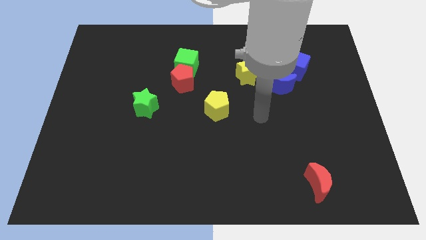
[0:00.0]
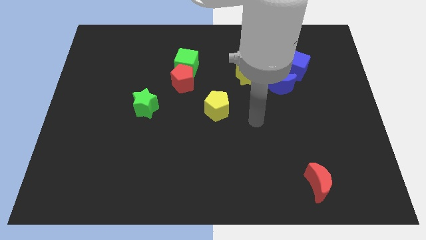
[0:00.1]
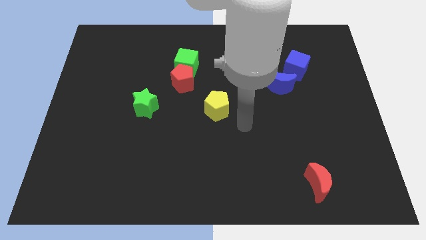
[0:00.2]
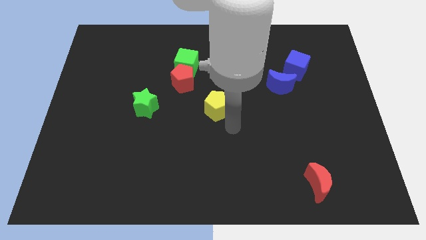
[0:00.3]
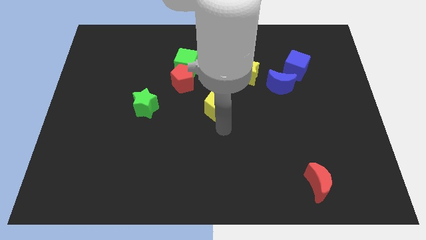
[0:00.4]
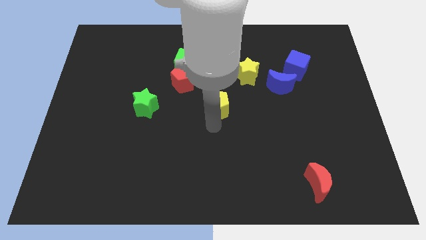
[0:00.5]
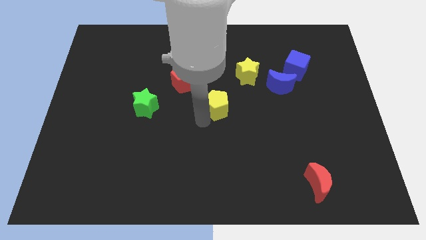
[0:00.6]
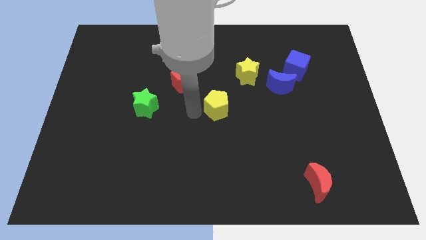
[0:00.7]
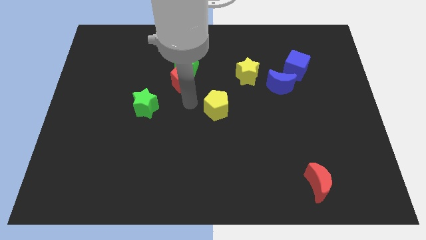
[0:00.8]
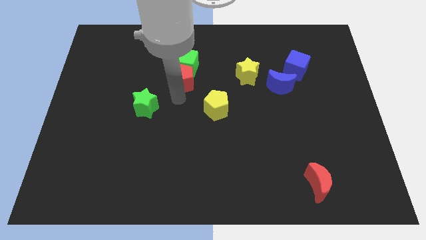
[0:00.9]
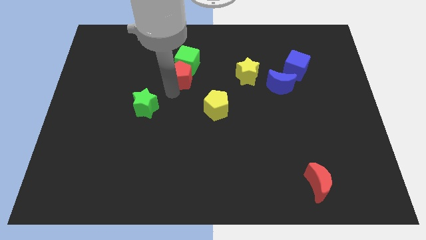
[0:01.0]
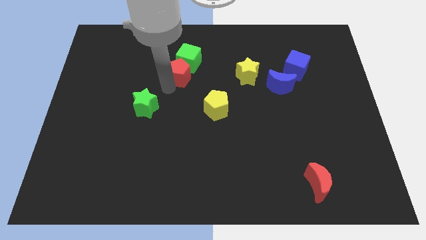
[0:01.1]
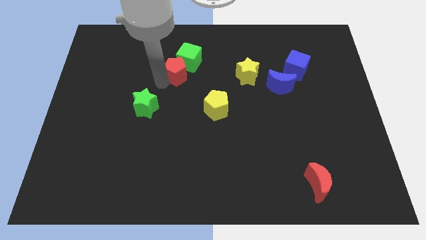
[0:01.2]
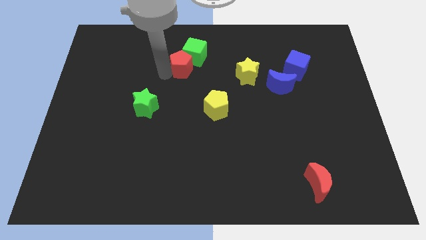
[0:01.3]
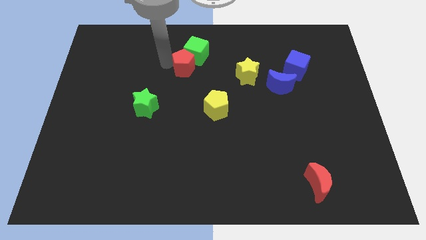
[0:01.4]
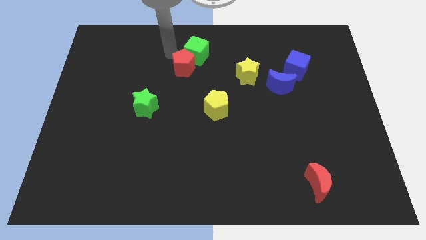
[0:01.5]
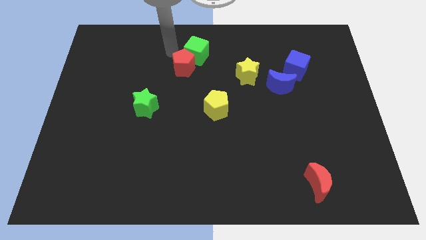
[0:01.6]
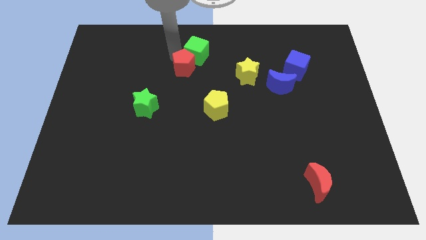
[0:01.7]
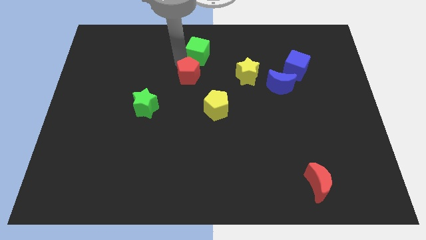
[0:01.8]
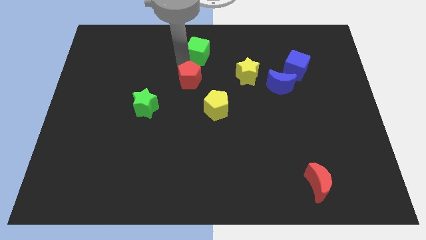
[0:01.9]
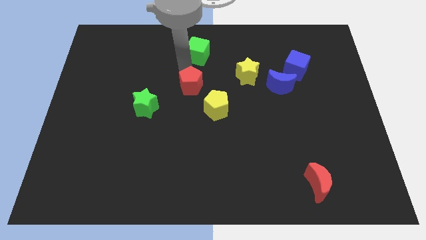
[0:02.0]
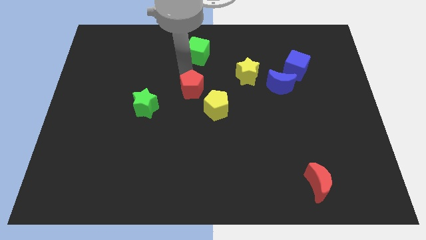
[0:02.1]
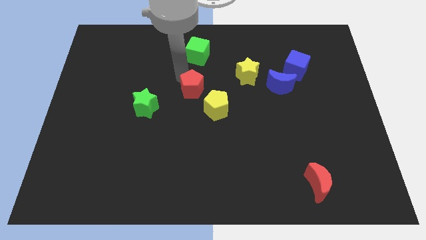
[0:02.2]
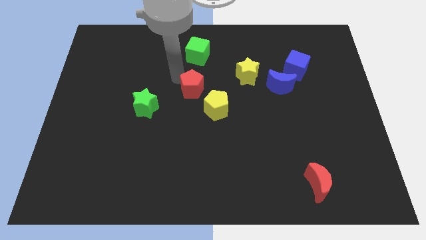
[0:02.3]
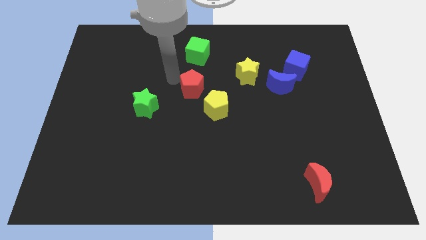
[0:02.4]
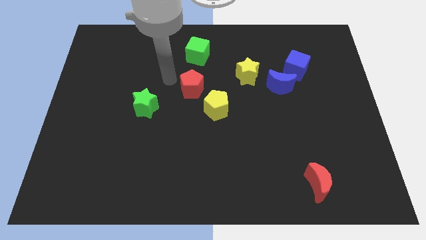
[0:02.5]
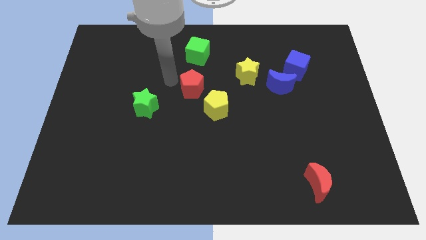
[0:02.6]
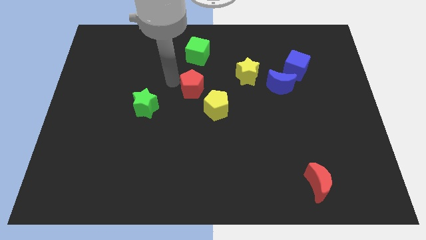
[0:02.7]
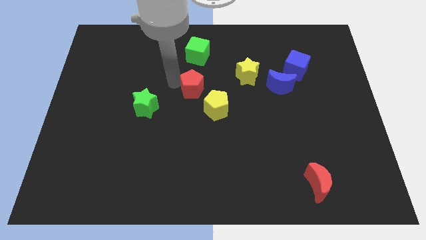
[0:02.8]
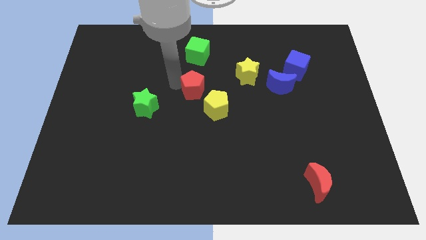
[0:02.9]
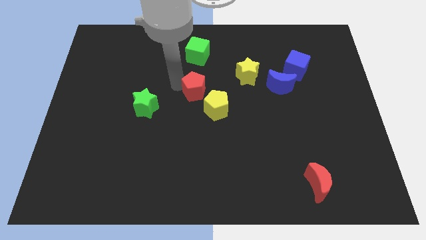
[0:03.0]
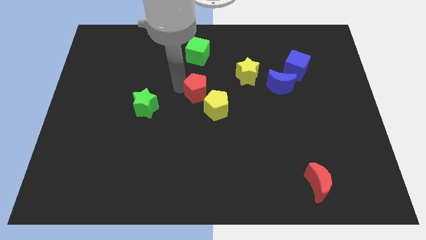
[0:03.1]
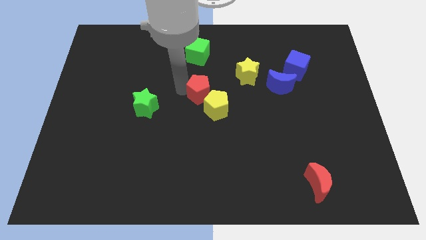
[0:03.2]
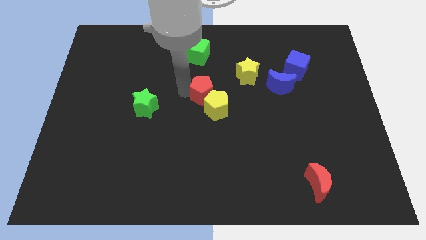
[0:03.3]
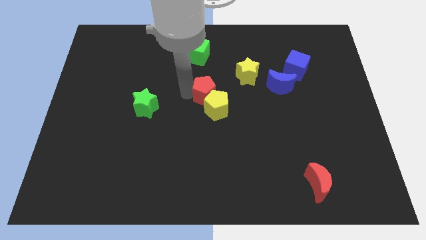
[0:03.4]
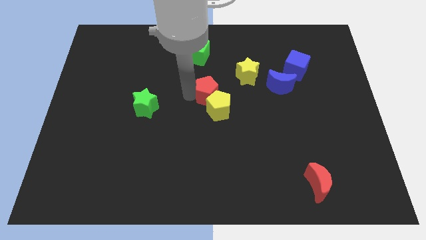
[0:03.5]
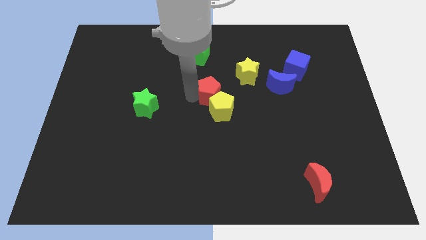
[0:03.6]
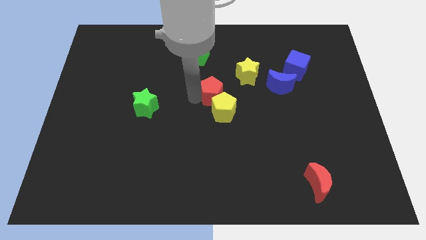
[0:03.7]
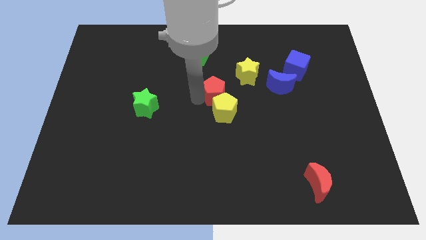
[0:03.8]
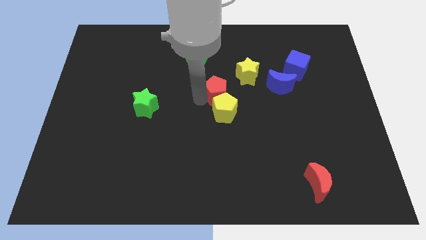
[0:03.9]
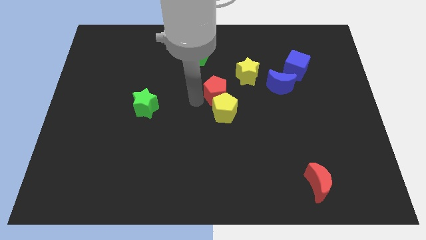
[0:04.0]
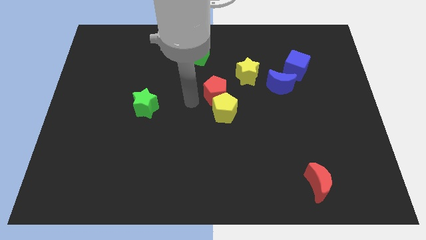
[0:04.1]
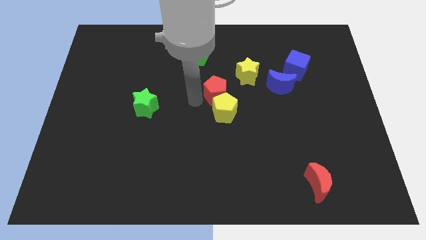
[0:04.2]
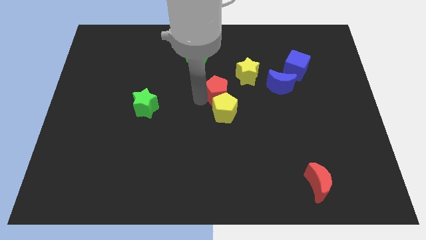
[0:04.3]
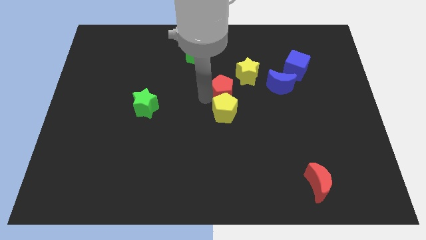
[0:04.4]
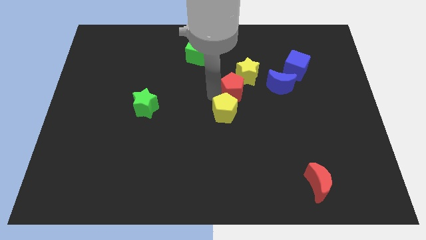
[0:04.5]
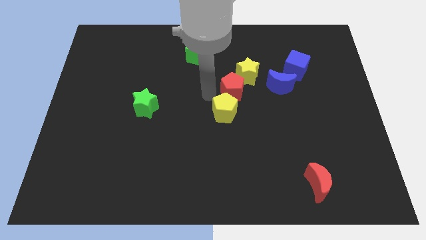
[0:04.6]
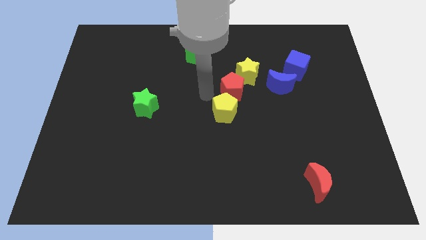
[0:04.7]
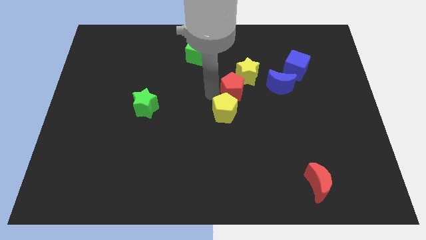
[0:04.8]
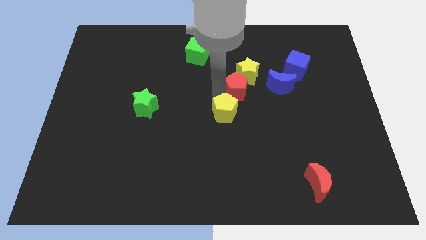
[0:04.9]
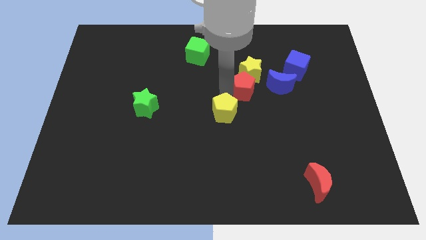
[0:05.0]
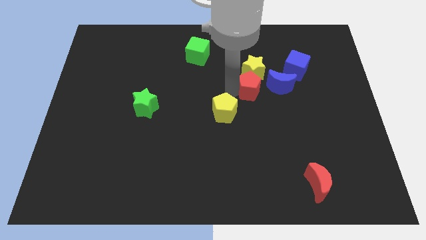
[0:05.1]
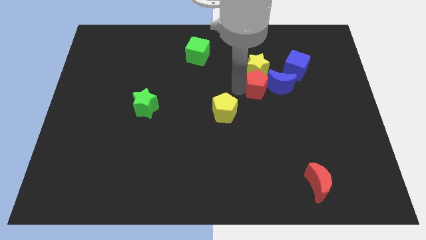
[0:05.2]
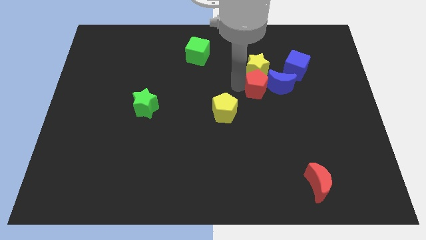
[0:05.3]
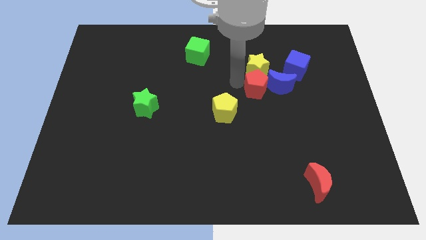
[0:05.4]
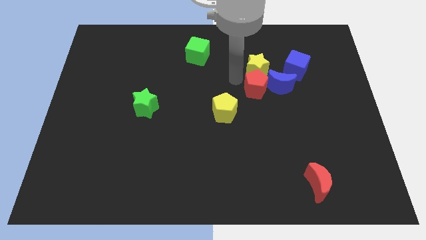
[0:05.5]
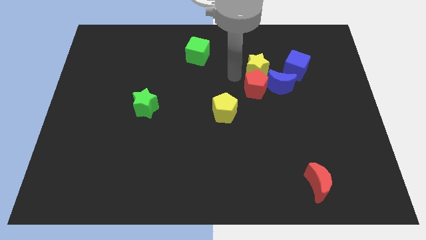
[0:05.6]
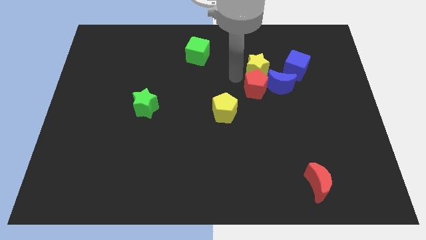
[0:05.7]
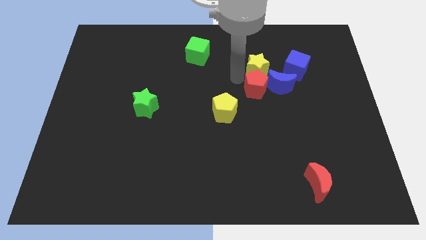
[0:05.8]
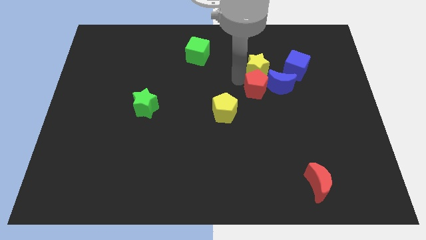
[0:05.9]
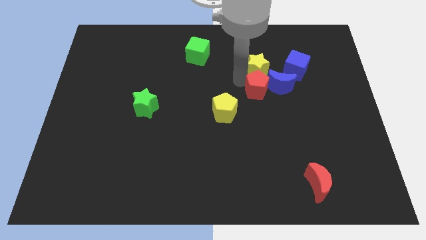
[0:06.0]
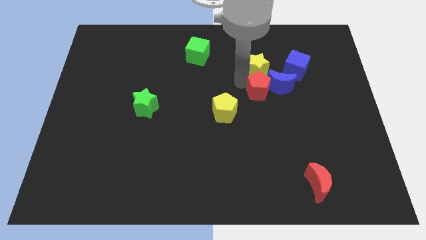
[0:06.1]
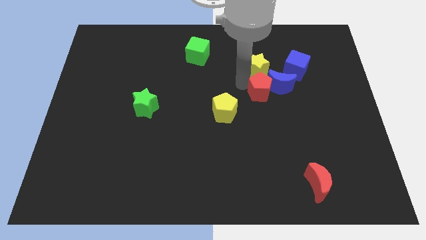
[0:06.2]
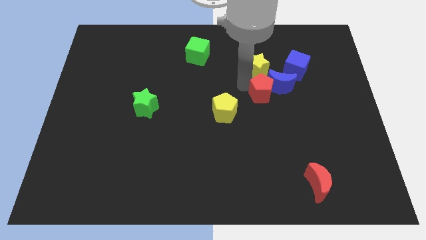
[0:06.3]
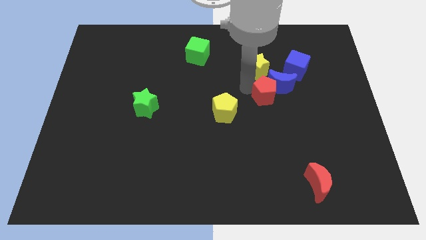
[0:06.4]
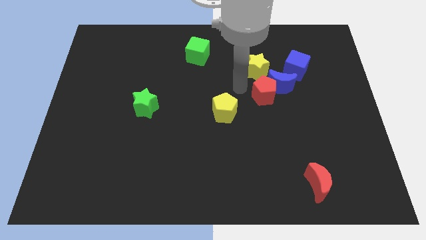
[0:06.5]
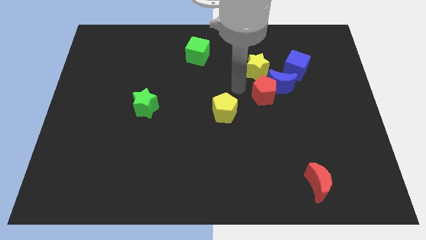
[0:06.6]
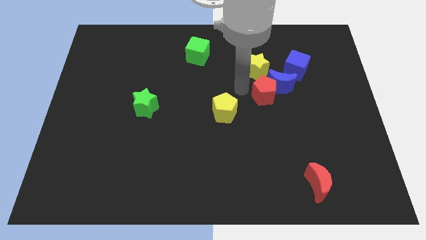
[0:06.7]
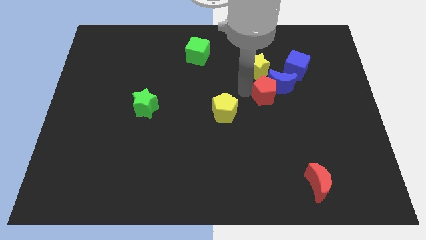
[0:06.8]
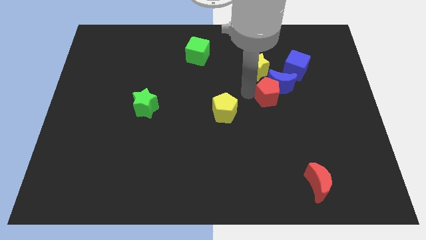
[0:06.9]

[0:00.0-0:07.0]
slide the red pentagon to the right

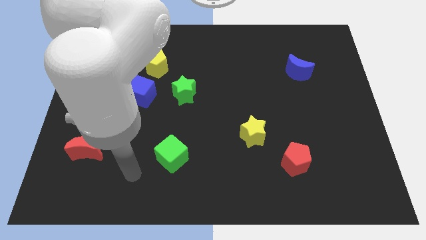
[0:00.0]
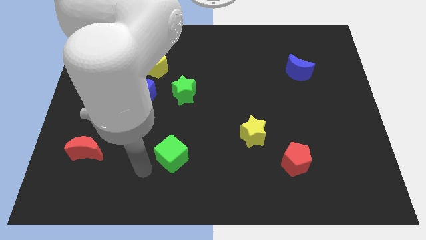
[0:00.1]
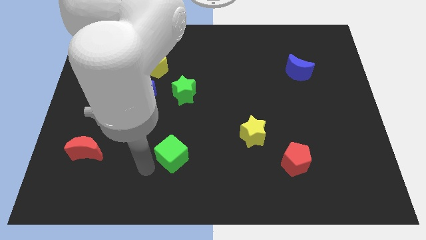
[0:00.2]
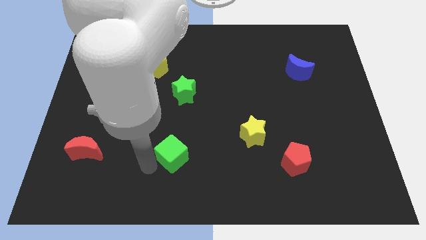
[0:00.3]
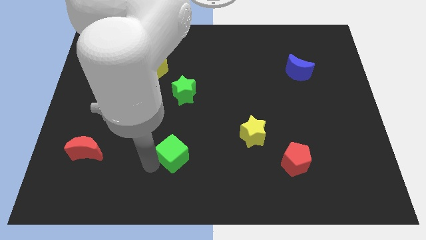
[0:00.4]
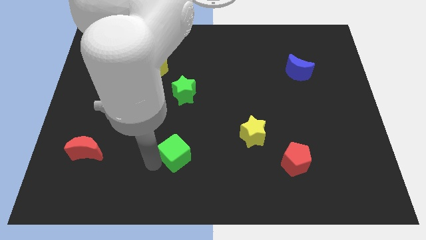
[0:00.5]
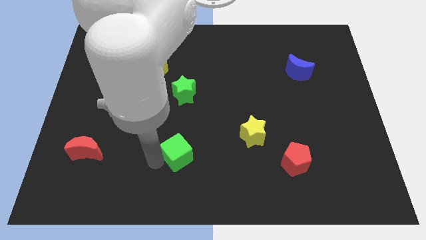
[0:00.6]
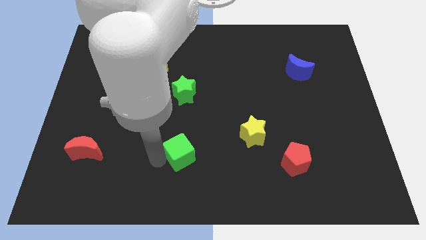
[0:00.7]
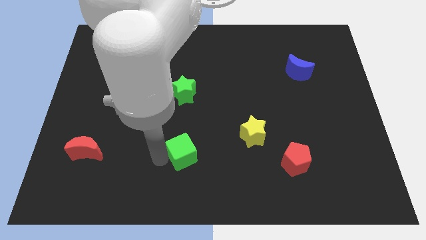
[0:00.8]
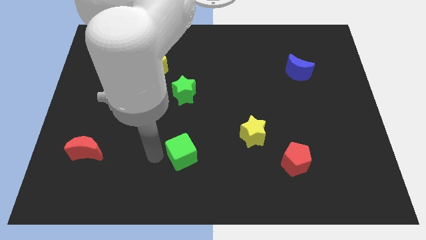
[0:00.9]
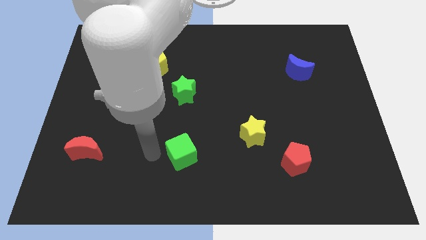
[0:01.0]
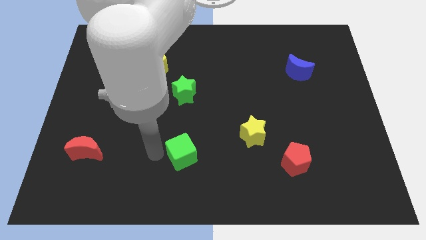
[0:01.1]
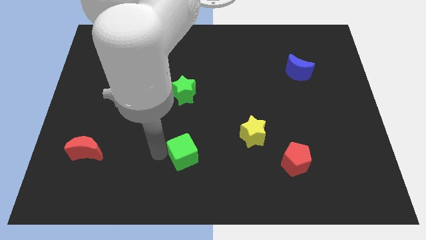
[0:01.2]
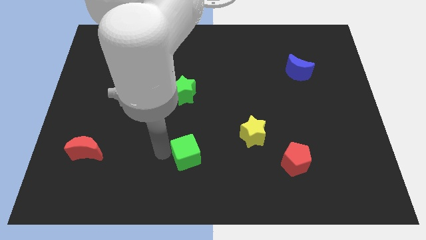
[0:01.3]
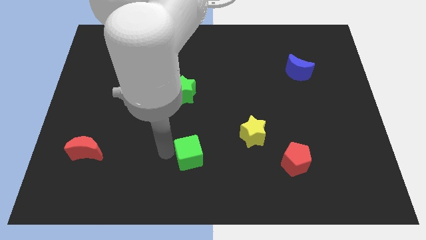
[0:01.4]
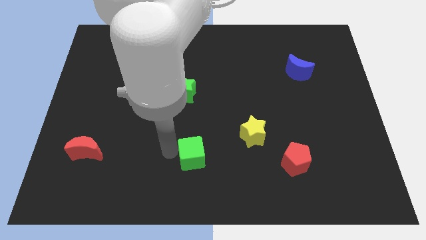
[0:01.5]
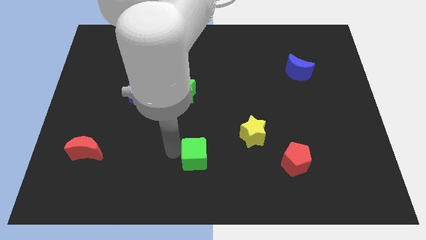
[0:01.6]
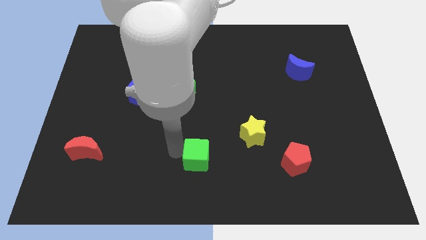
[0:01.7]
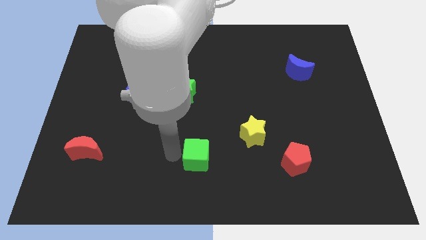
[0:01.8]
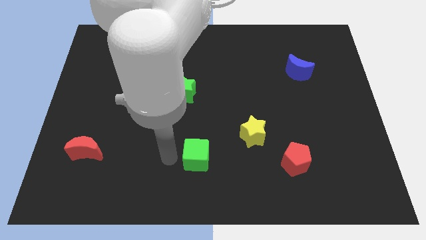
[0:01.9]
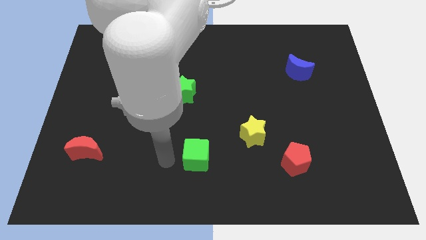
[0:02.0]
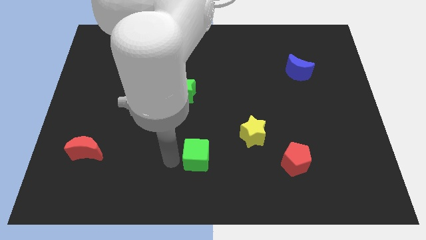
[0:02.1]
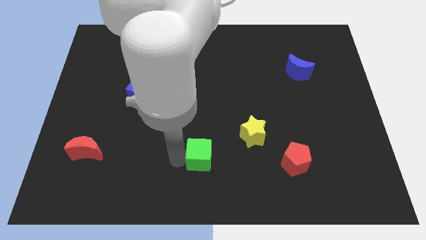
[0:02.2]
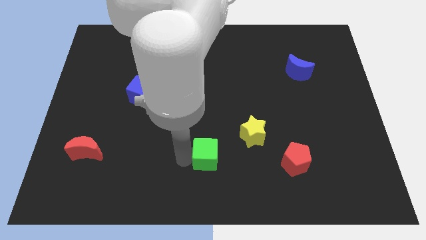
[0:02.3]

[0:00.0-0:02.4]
push the green cube to the right somewhat
